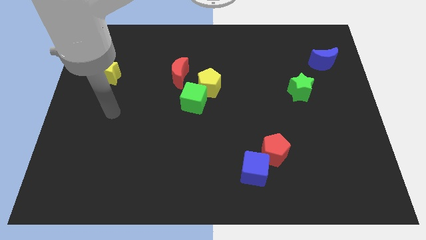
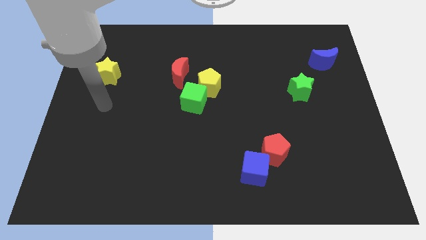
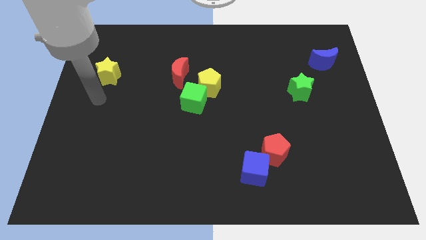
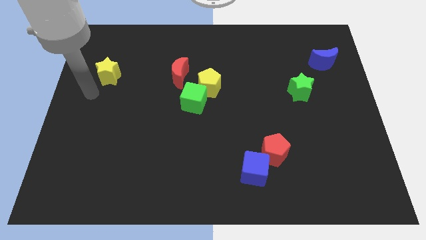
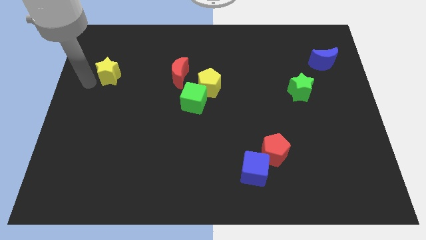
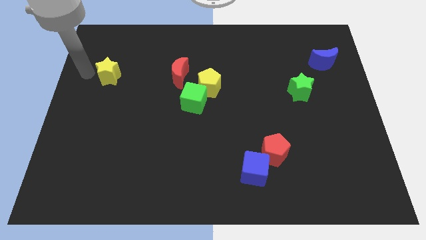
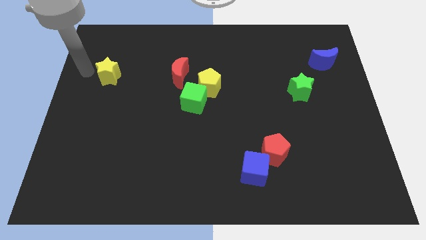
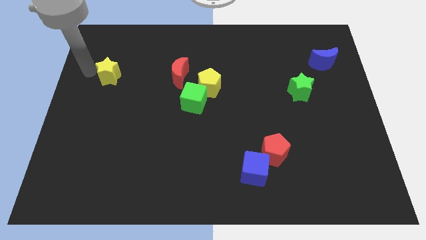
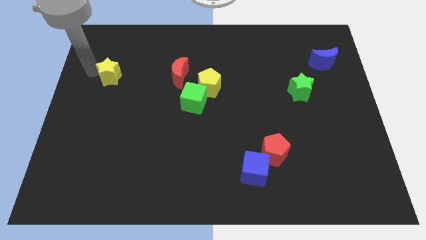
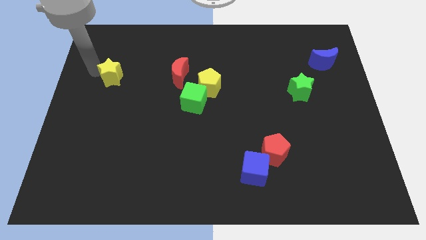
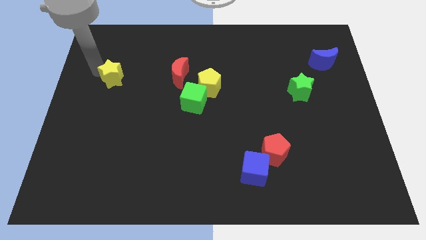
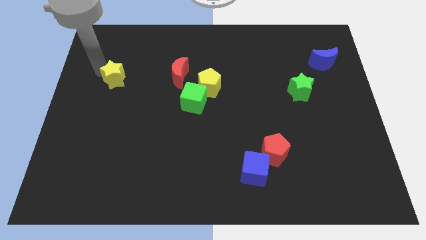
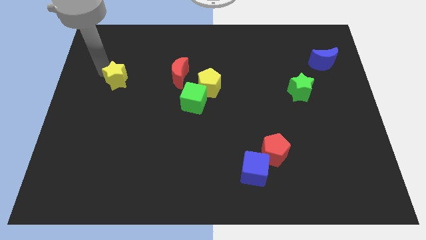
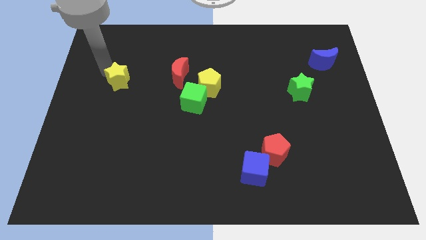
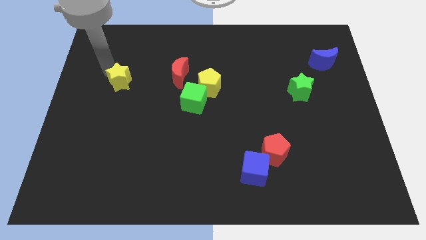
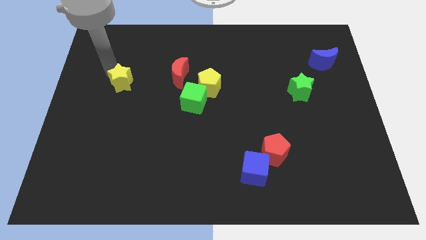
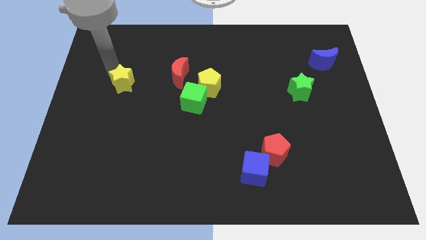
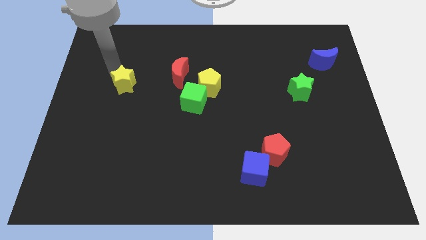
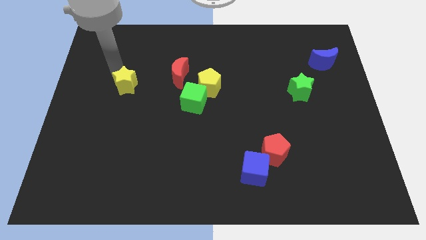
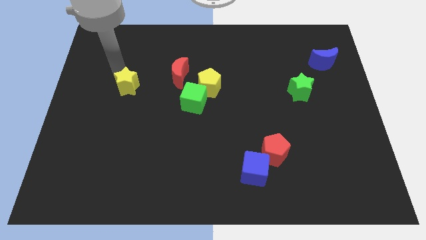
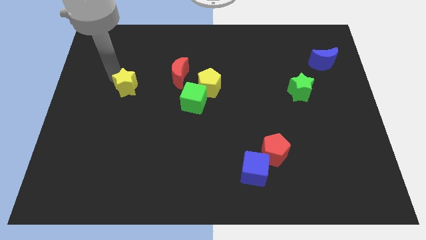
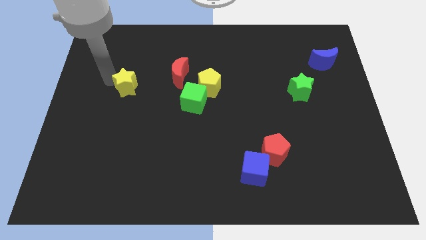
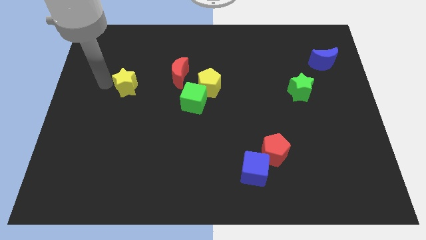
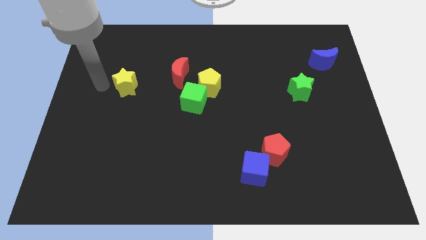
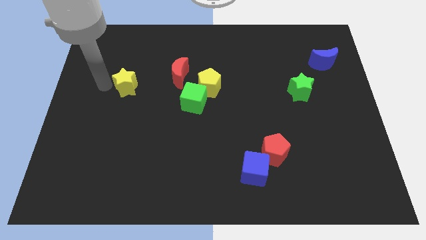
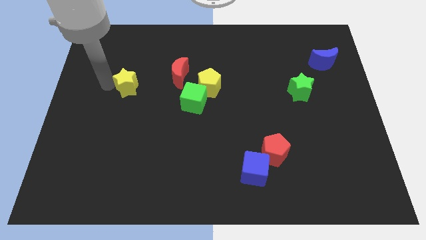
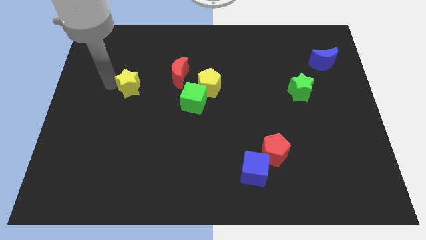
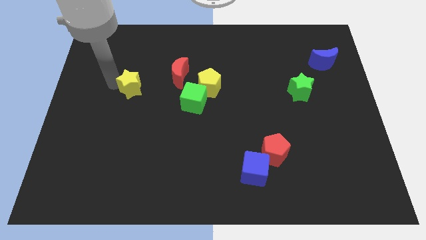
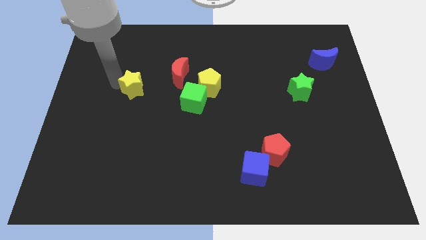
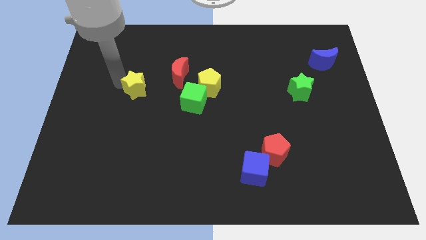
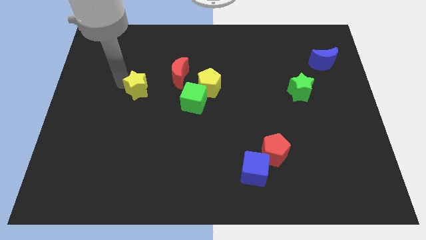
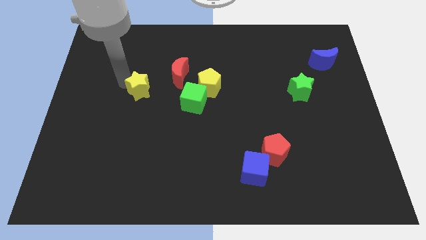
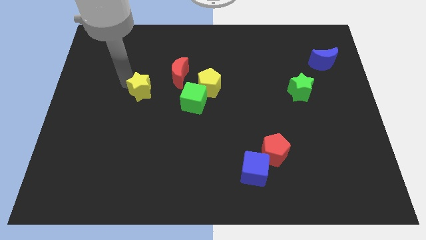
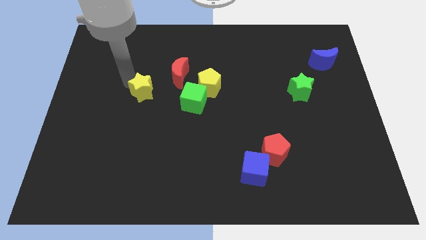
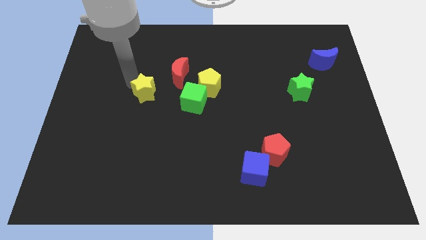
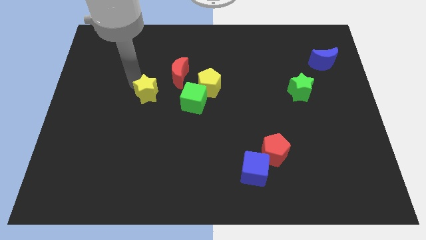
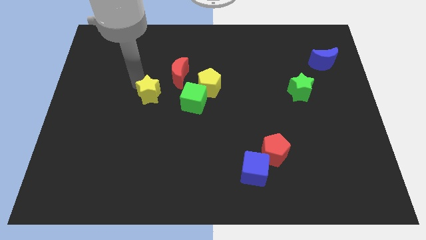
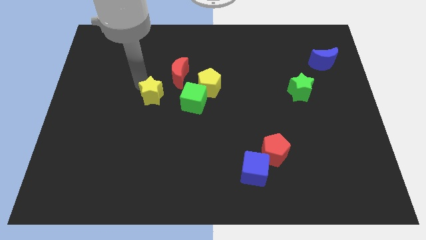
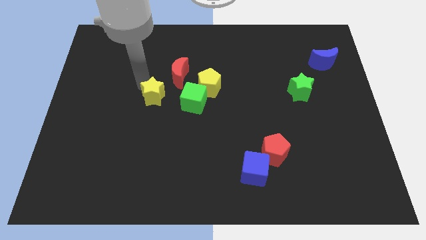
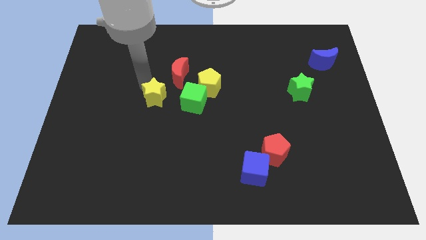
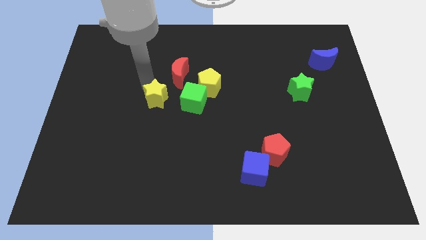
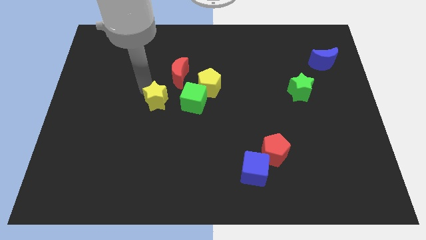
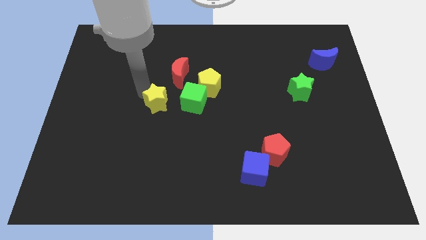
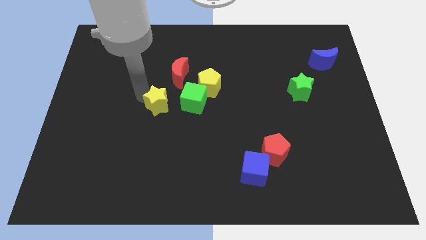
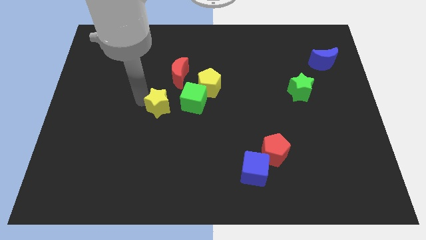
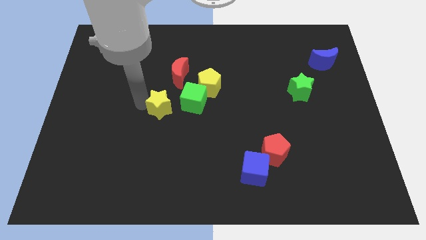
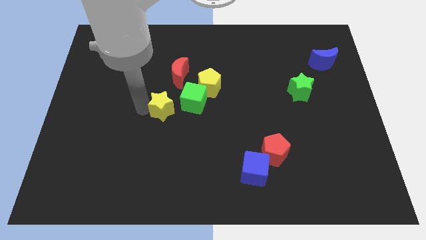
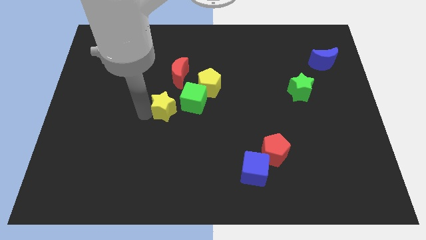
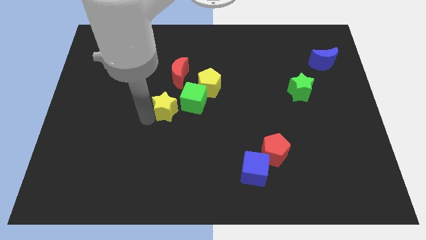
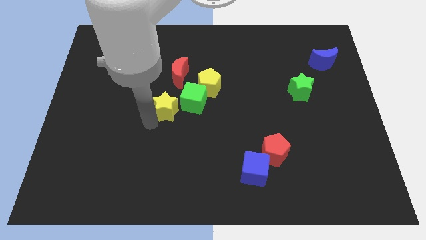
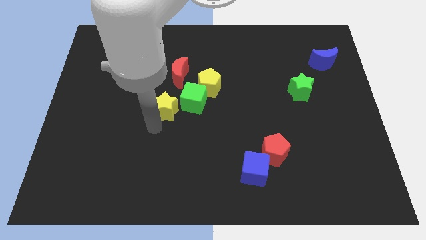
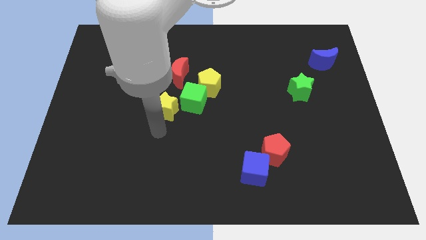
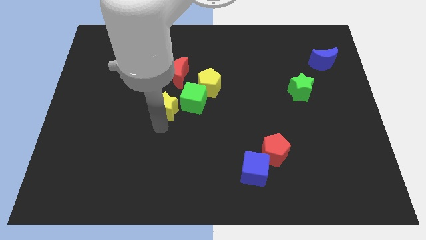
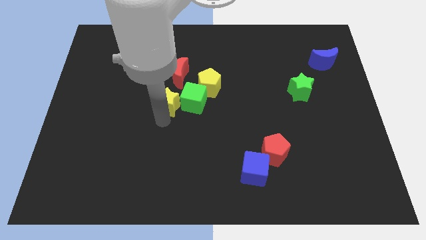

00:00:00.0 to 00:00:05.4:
slide the yellow star next to the green cube

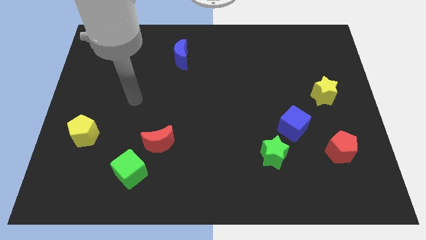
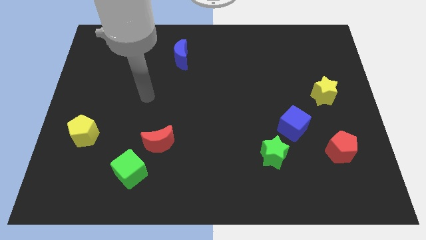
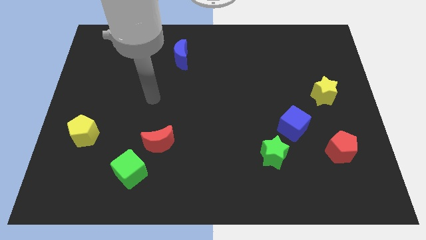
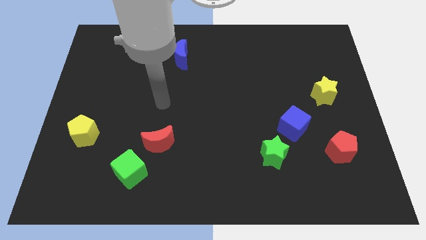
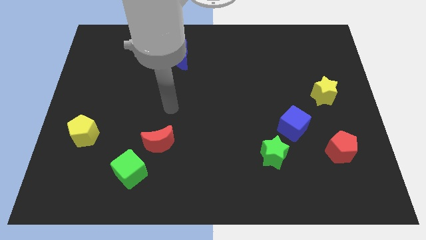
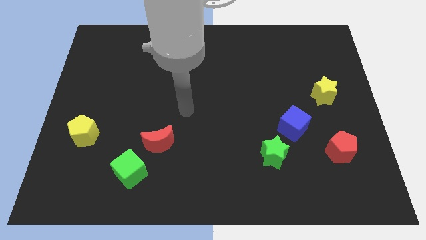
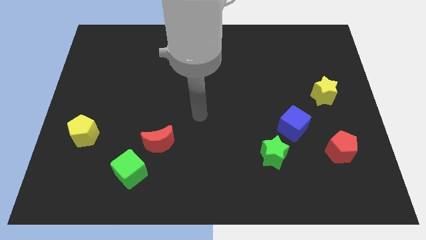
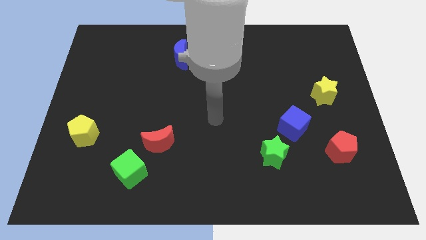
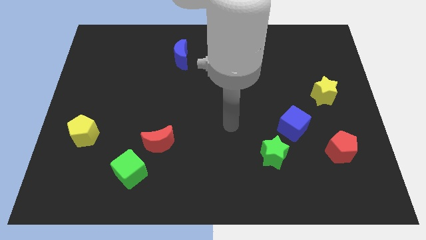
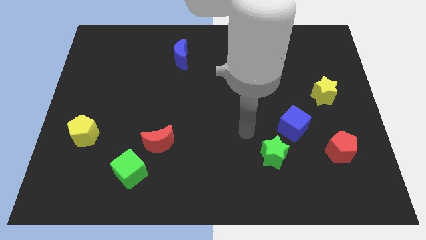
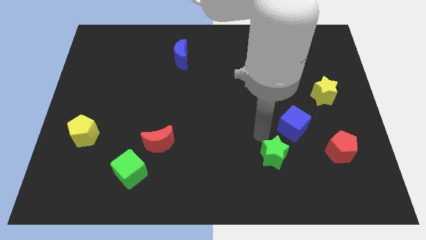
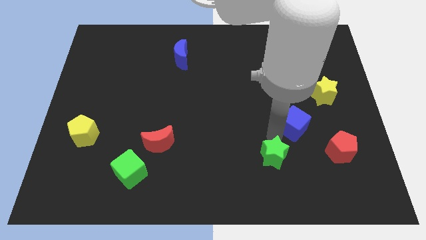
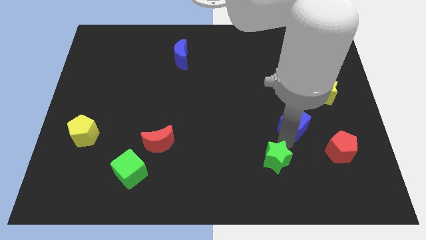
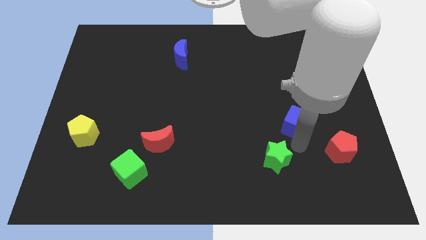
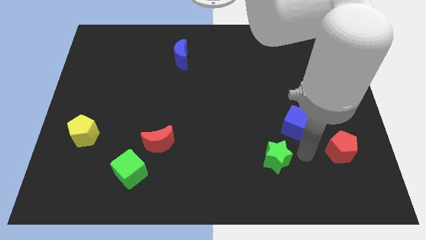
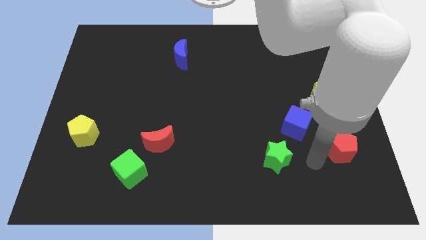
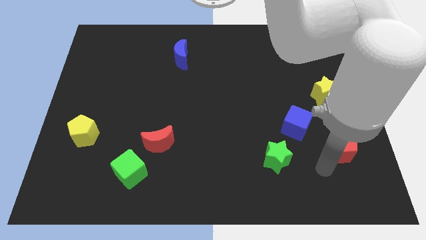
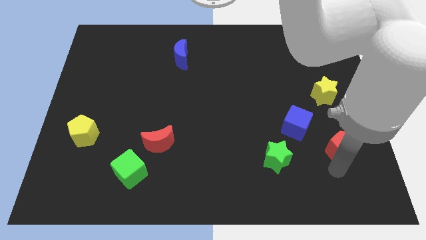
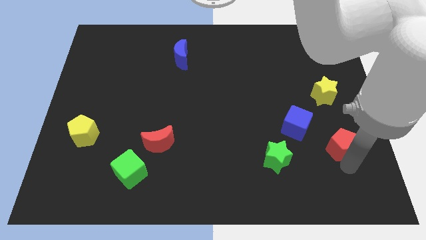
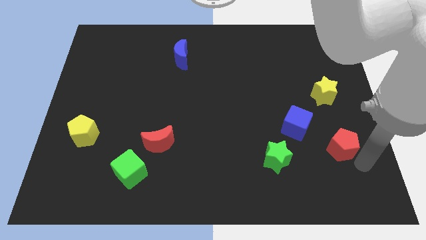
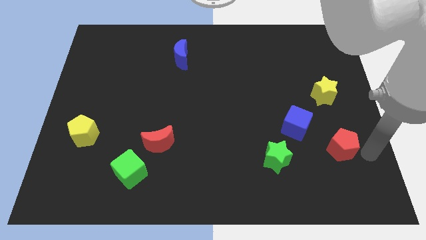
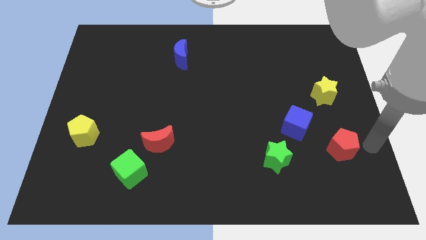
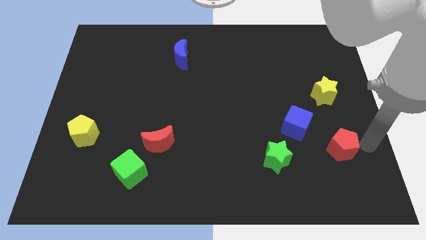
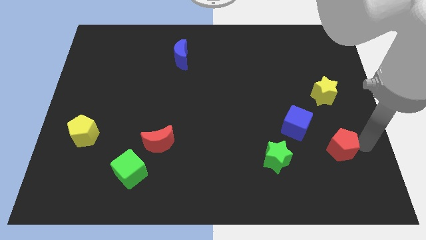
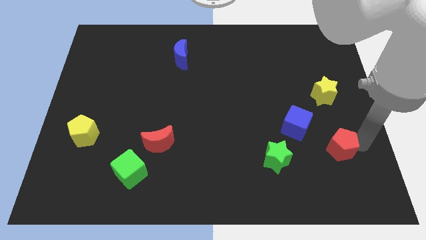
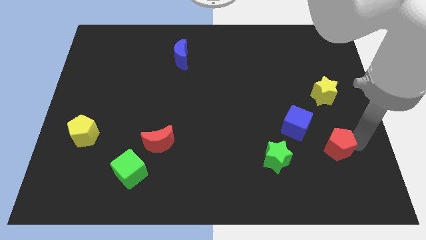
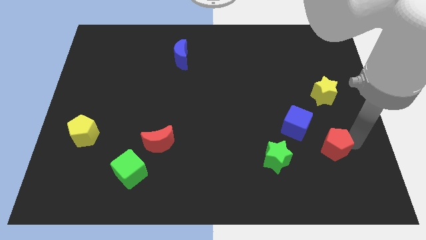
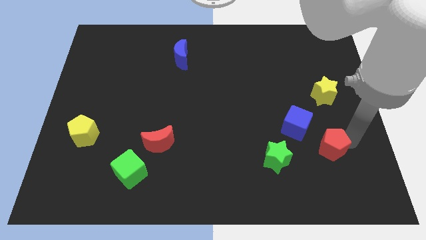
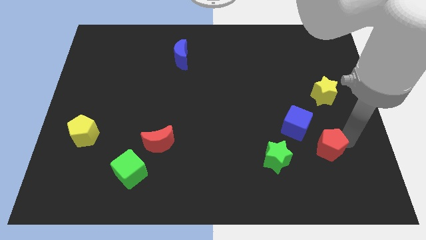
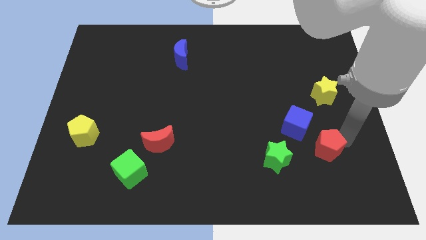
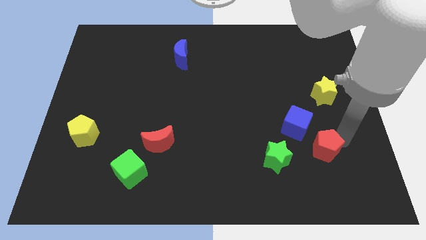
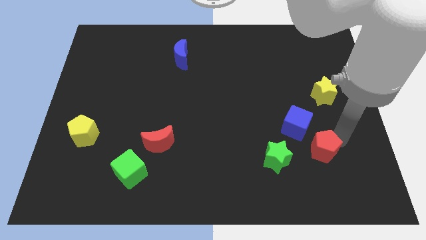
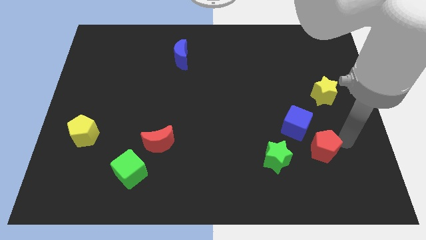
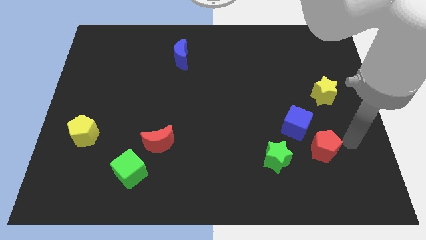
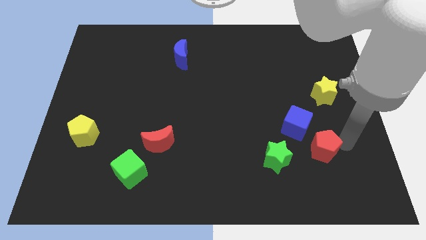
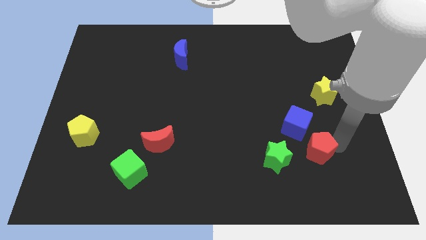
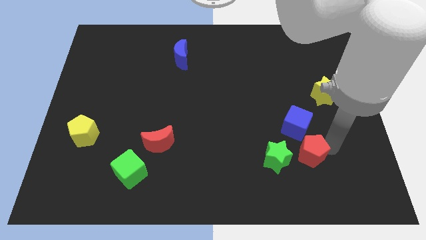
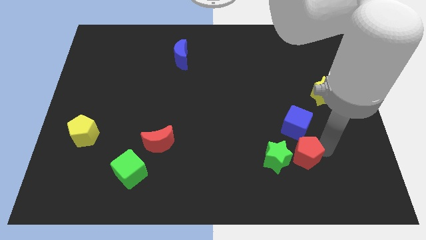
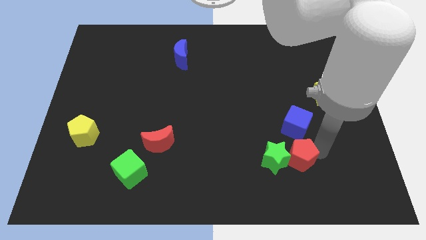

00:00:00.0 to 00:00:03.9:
put the red pentagon next to the green star
